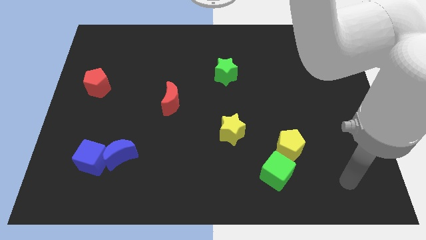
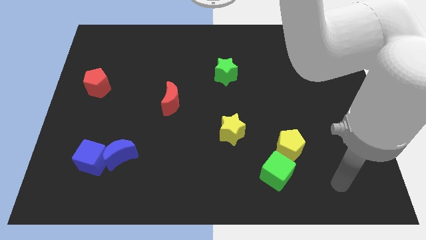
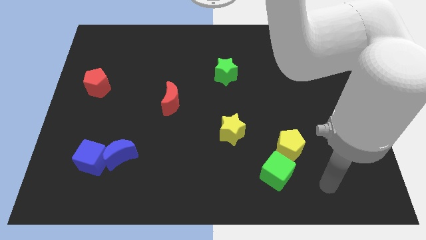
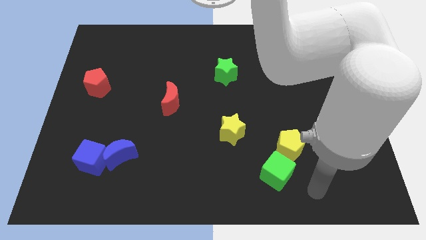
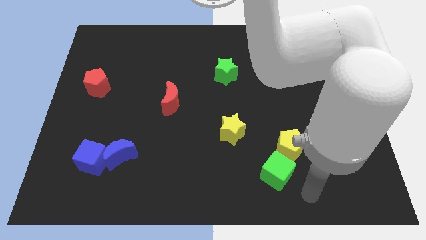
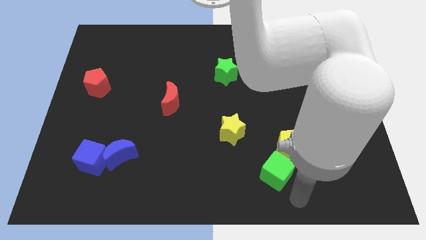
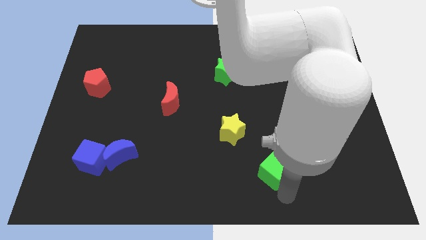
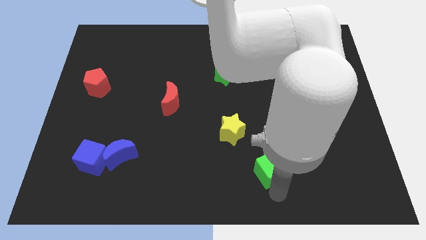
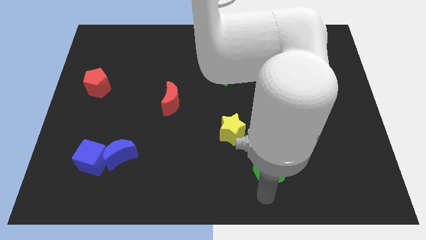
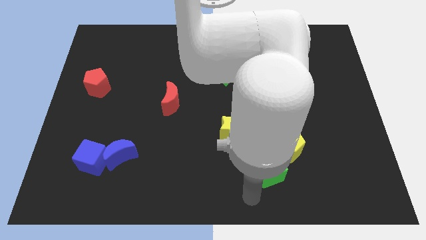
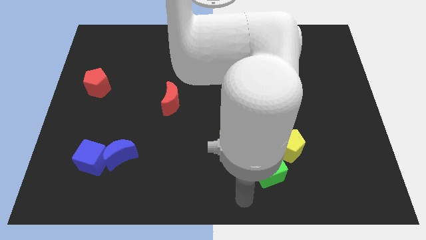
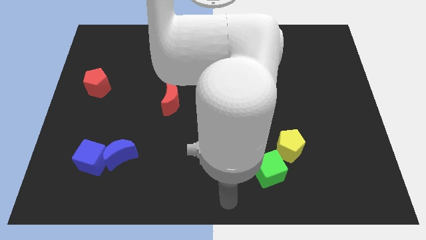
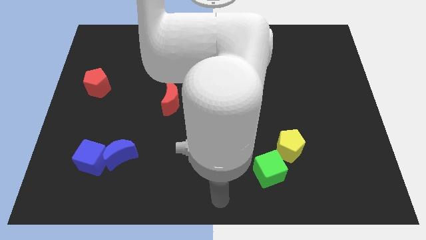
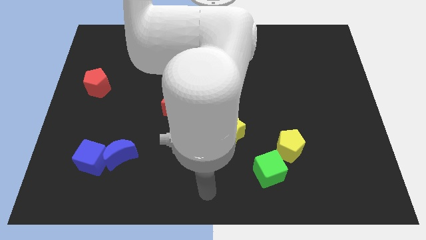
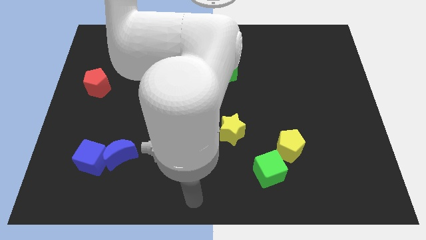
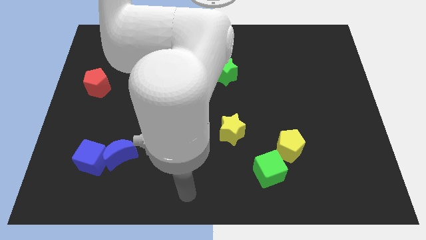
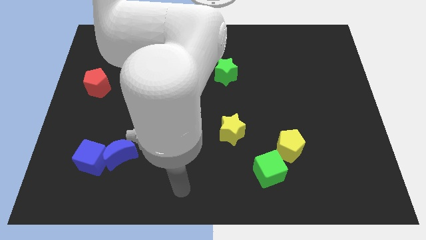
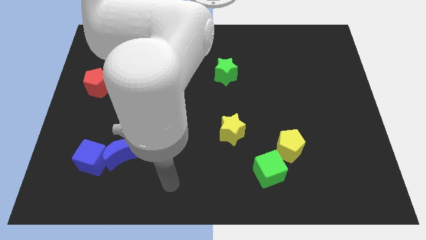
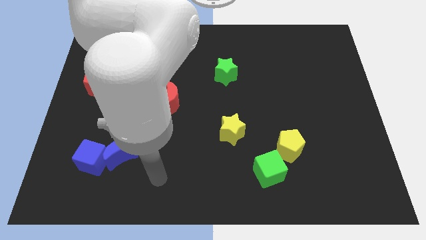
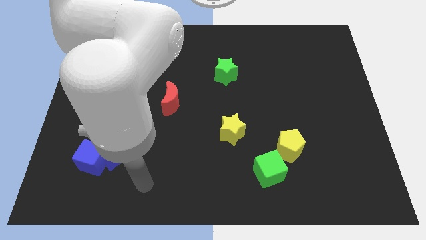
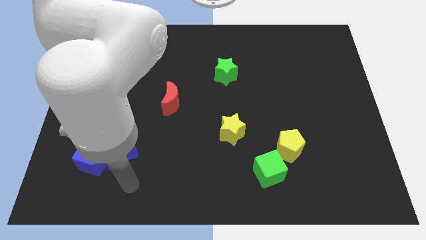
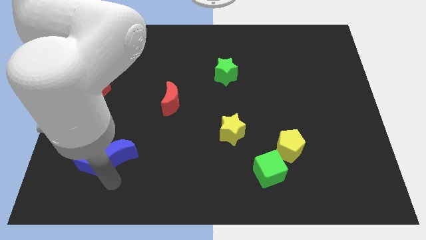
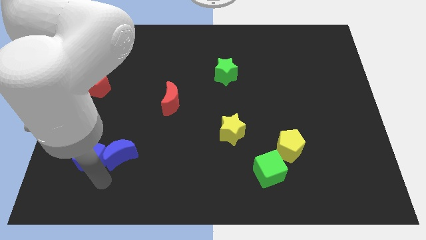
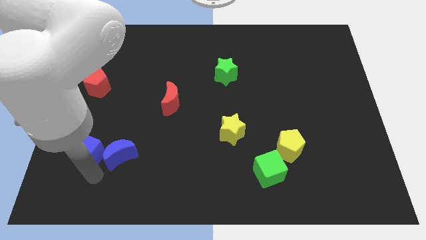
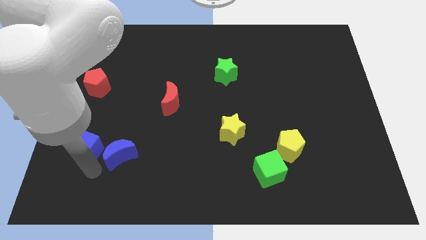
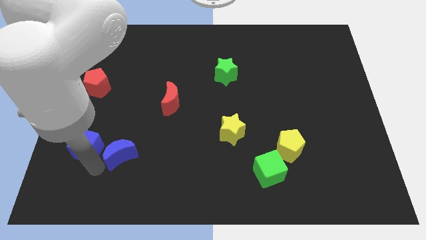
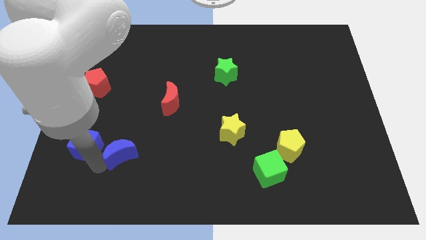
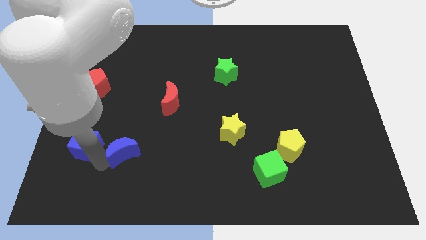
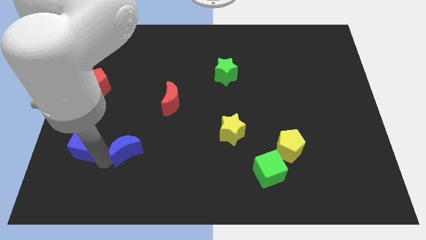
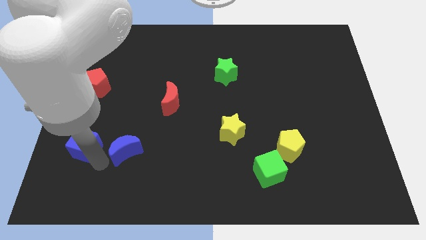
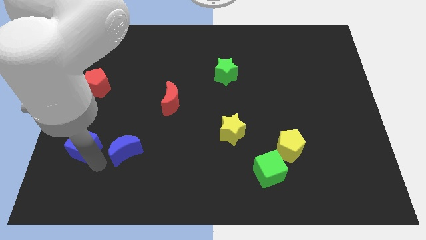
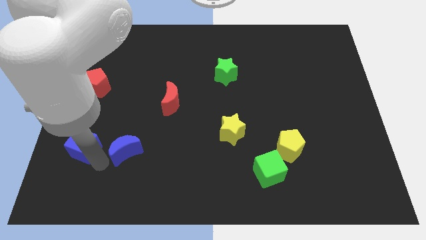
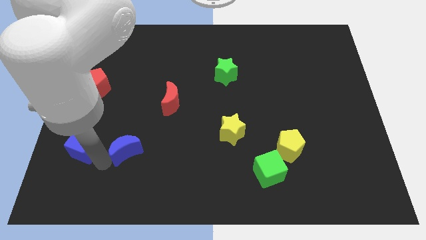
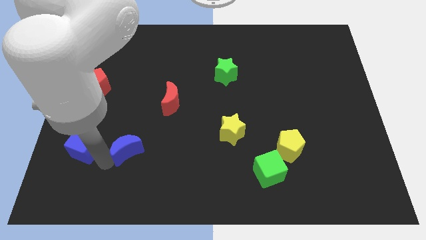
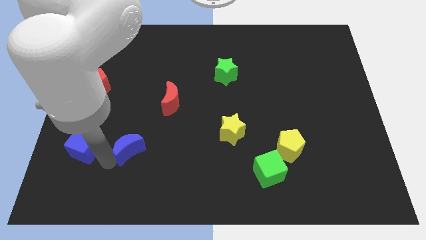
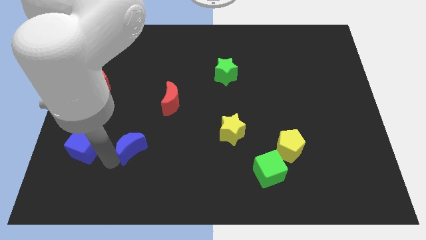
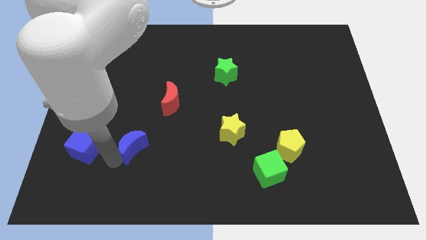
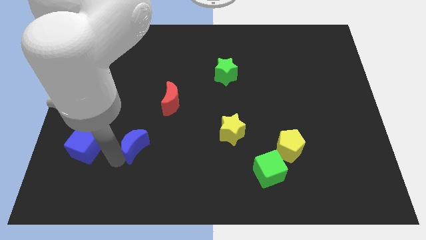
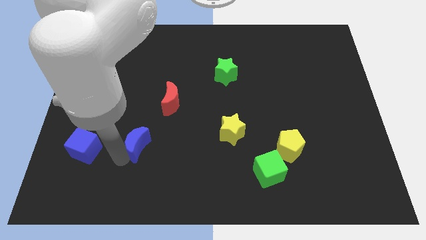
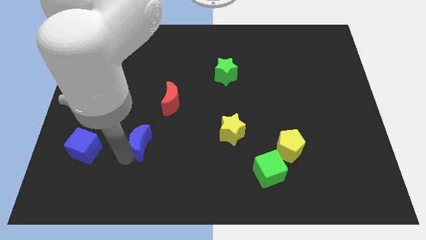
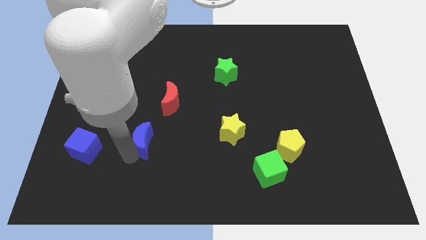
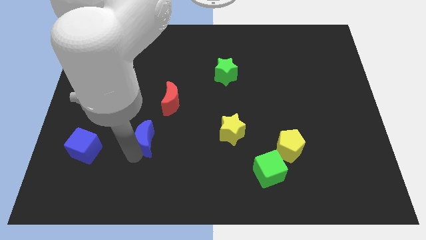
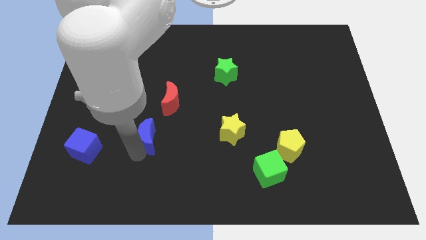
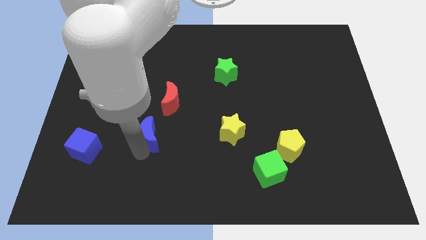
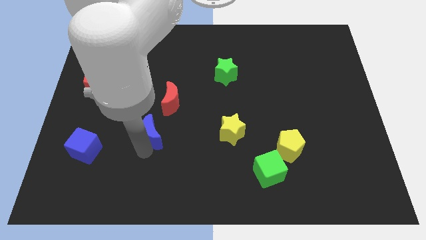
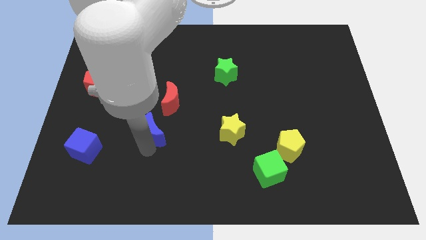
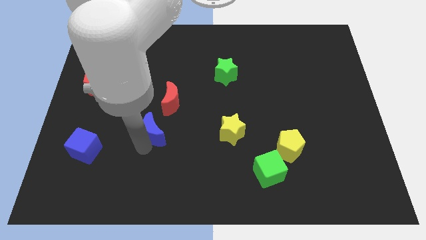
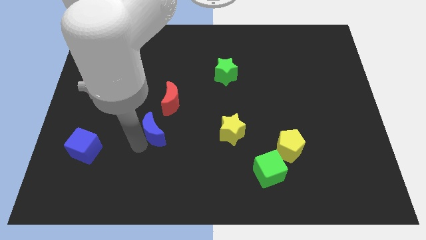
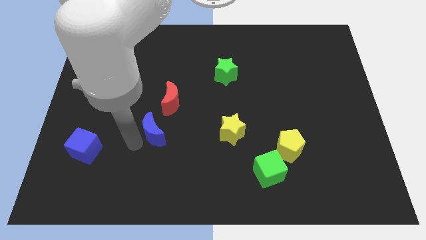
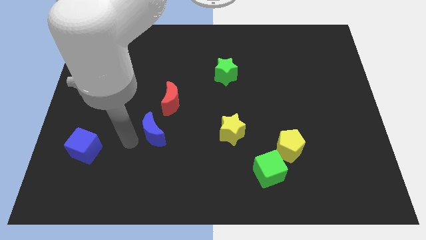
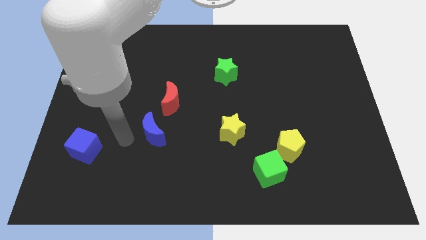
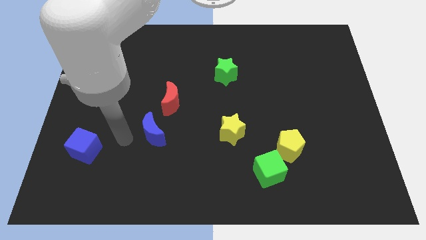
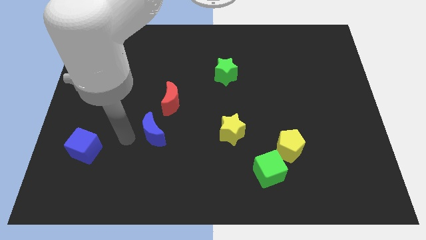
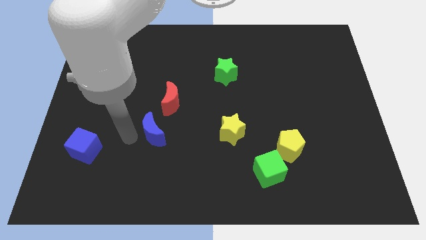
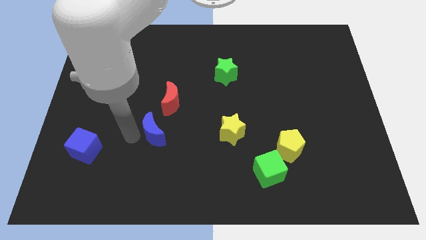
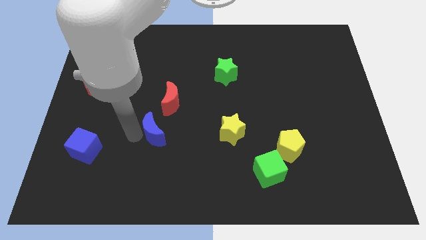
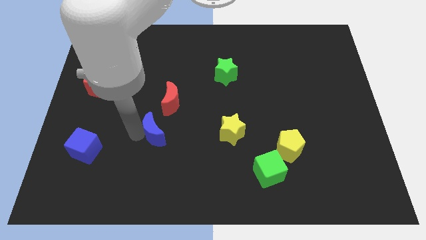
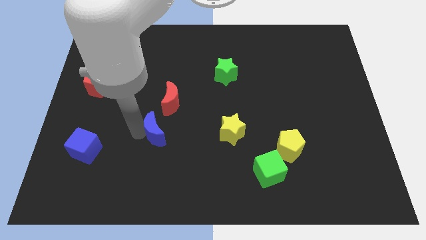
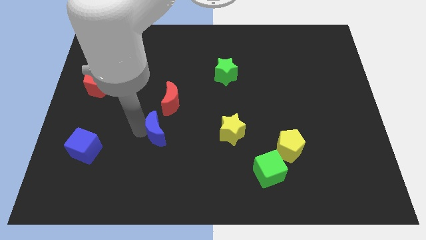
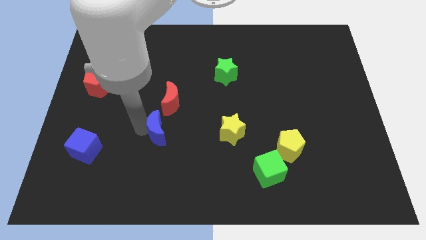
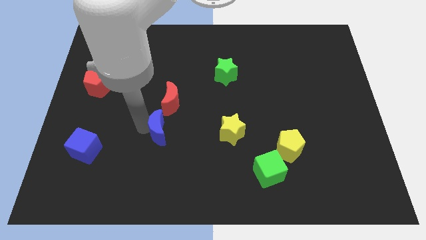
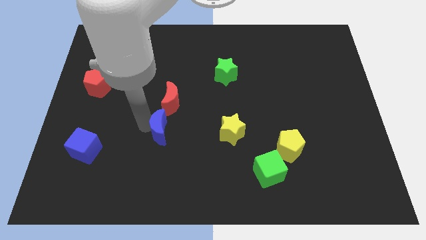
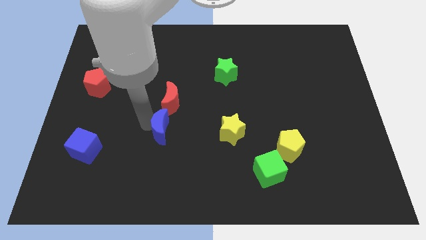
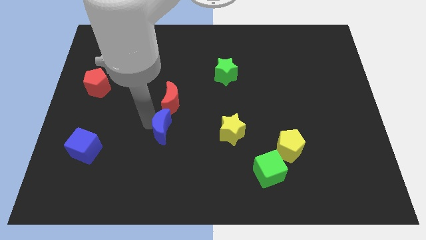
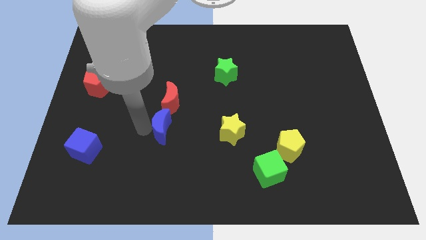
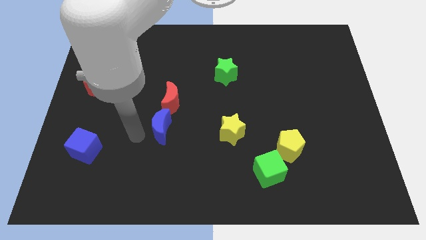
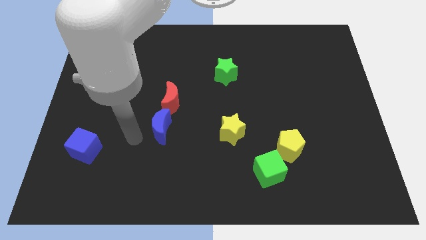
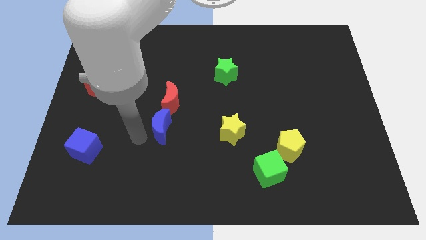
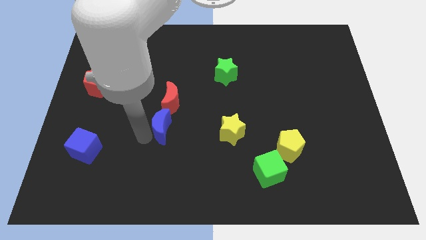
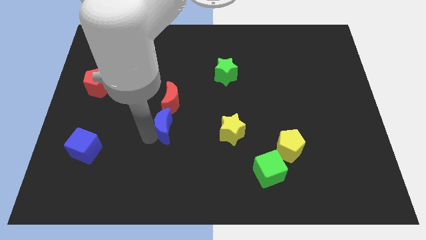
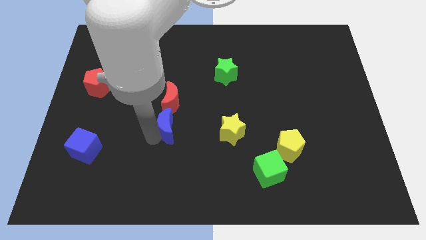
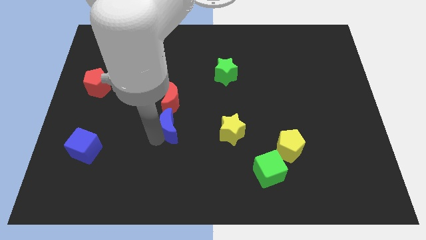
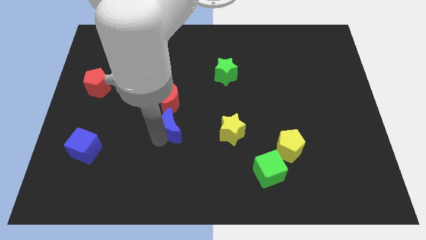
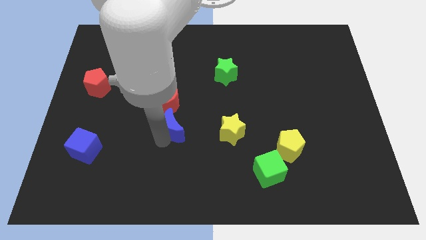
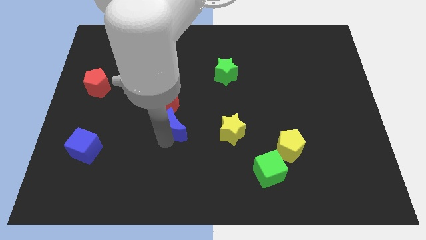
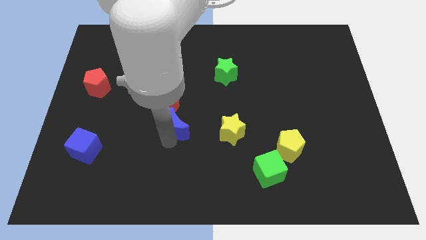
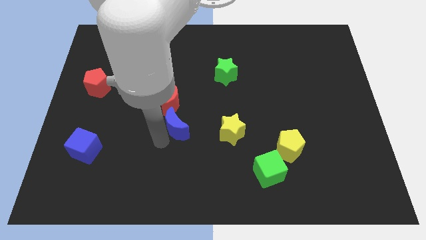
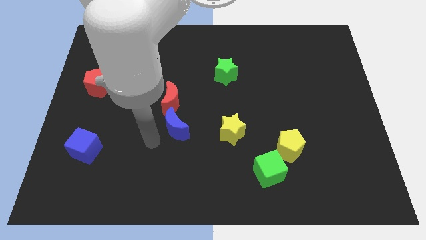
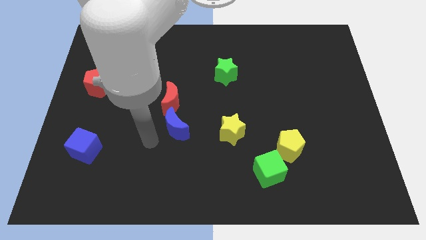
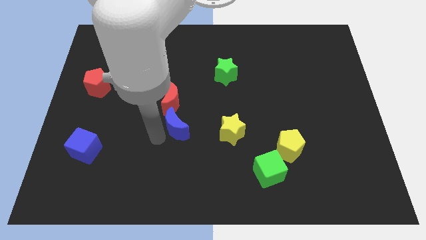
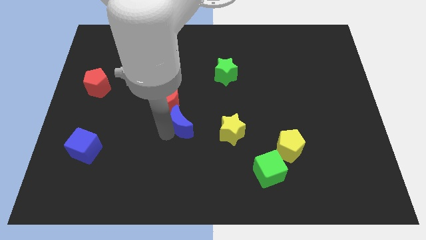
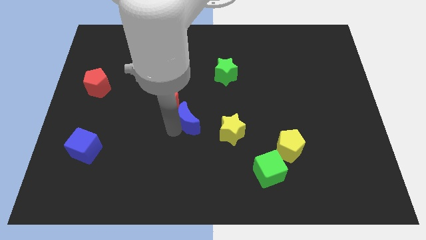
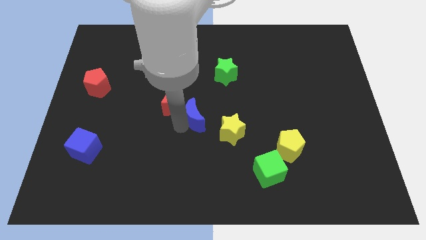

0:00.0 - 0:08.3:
move the blue moon to the top left side of the yellow star
